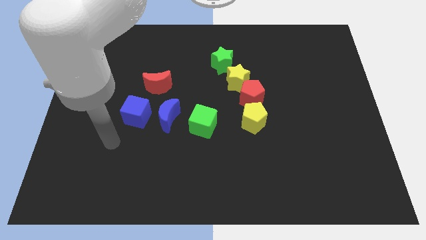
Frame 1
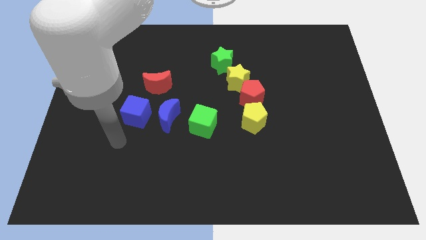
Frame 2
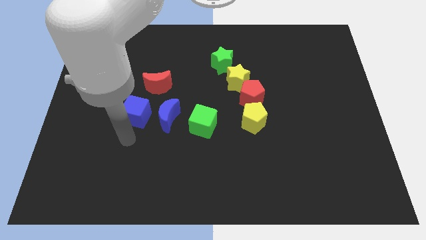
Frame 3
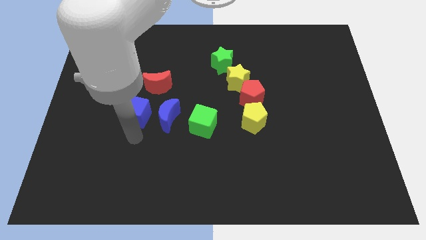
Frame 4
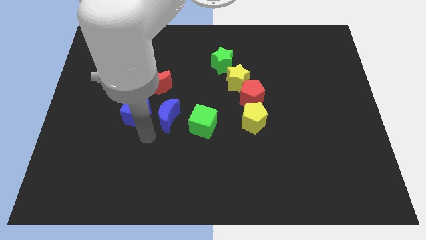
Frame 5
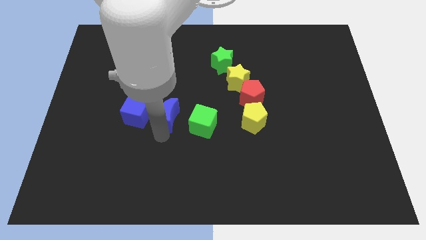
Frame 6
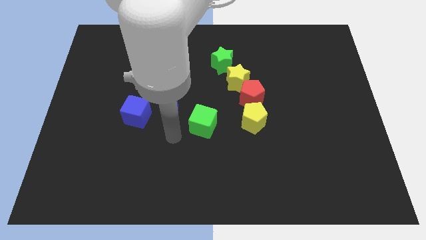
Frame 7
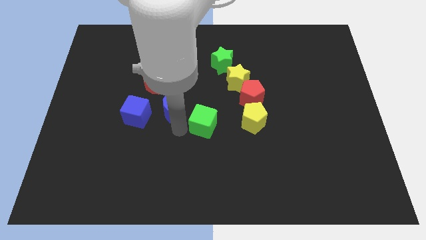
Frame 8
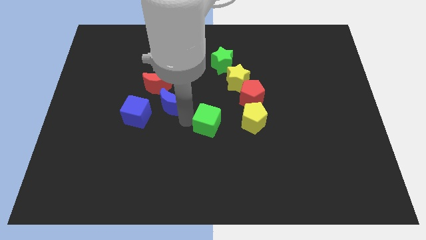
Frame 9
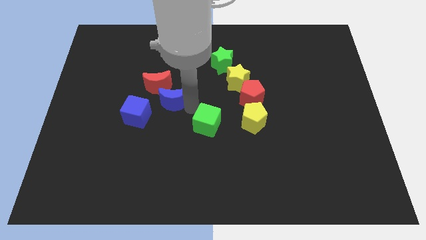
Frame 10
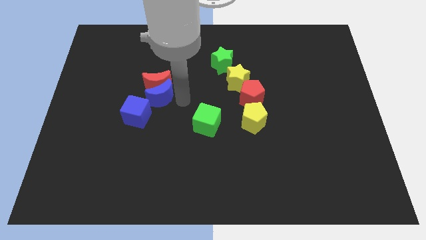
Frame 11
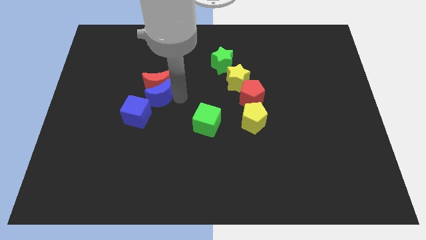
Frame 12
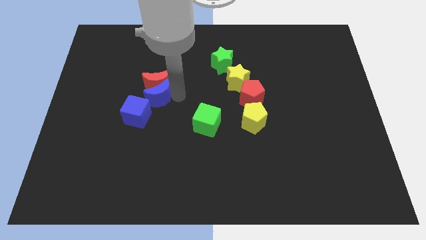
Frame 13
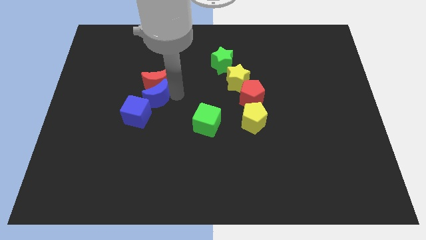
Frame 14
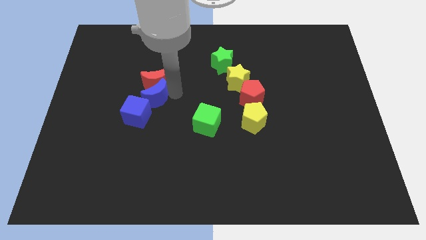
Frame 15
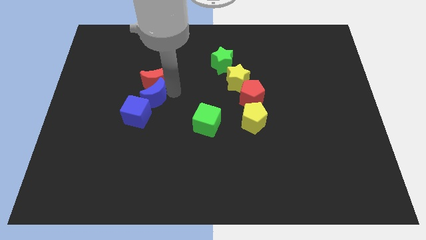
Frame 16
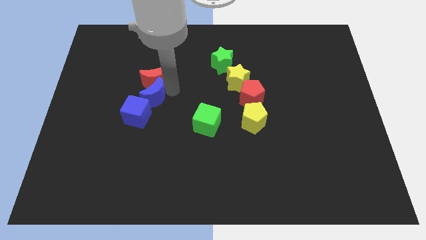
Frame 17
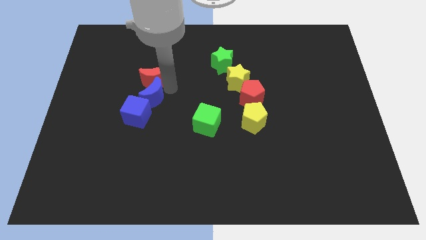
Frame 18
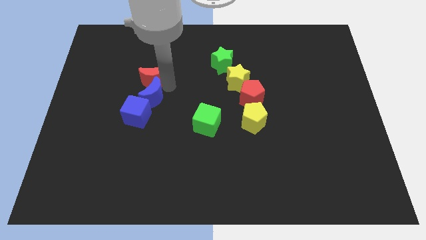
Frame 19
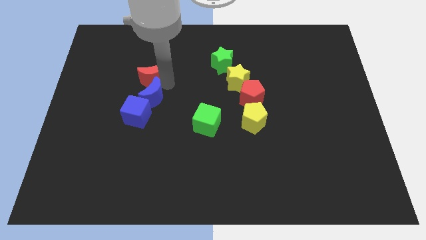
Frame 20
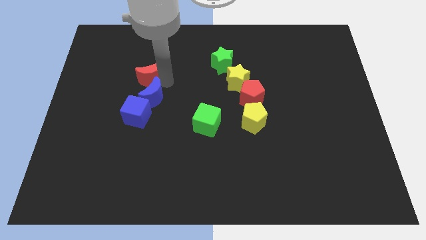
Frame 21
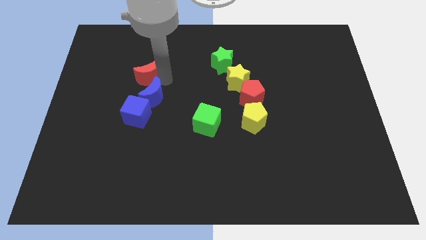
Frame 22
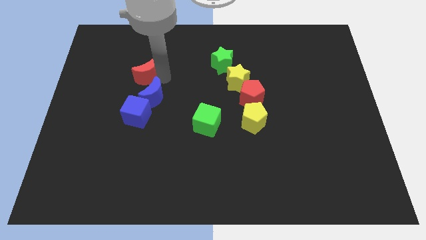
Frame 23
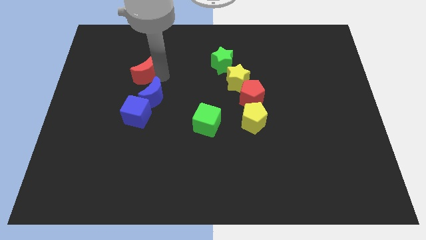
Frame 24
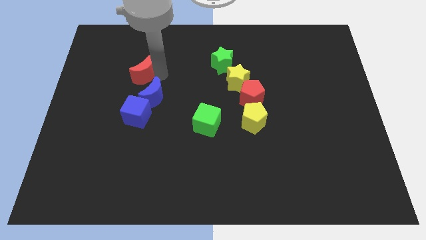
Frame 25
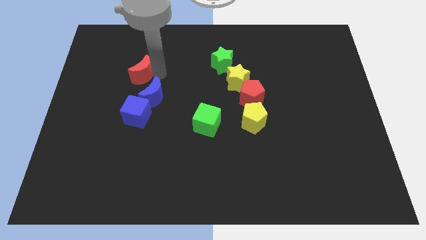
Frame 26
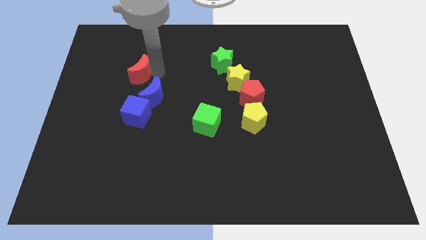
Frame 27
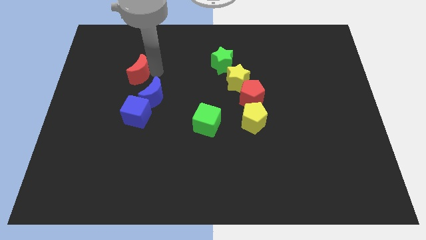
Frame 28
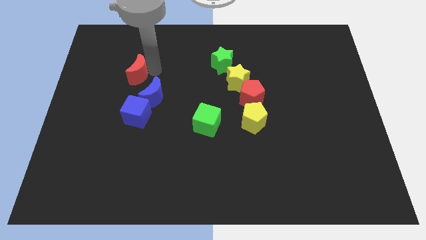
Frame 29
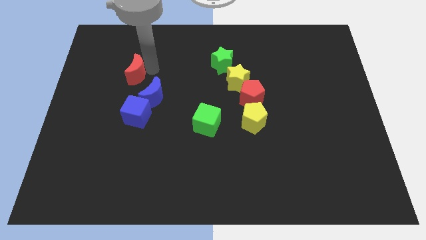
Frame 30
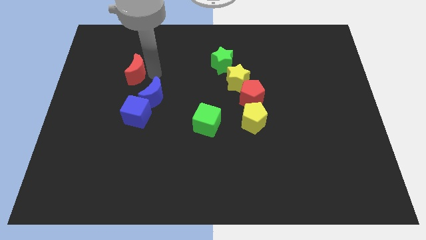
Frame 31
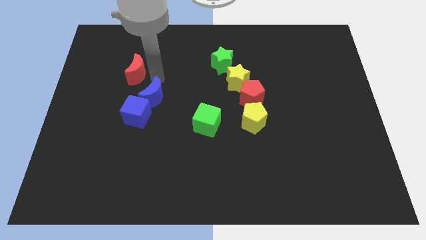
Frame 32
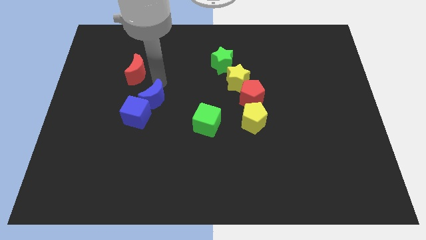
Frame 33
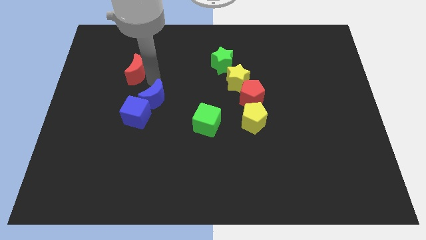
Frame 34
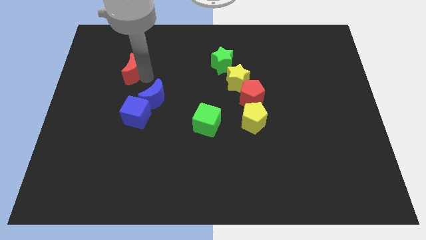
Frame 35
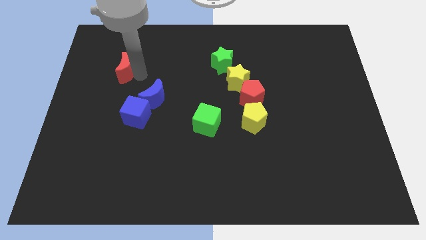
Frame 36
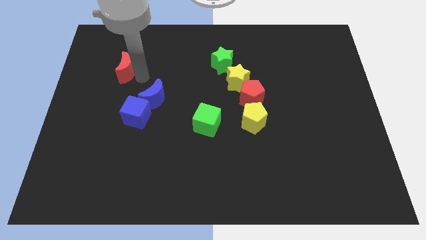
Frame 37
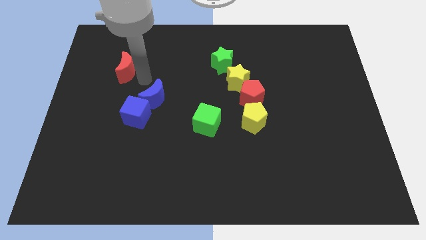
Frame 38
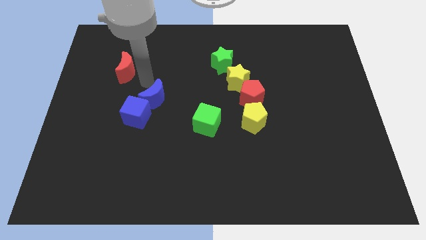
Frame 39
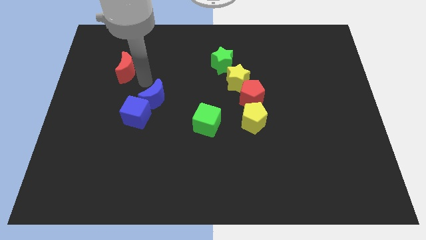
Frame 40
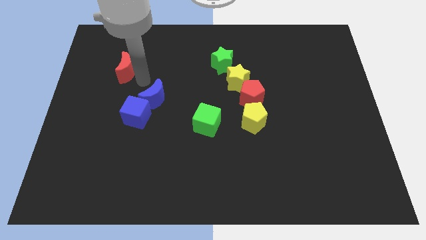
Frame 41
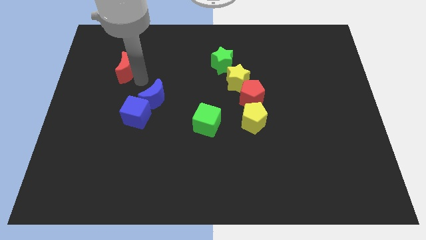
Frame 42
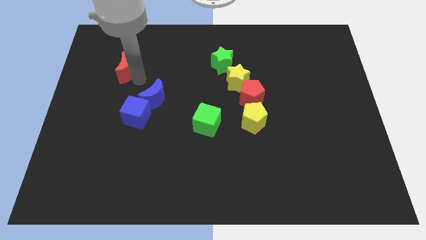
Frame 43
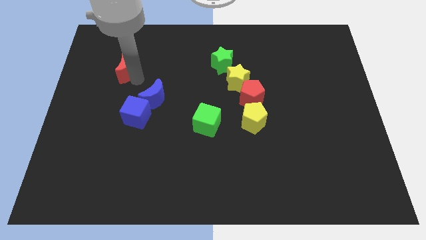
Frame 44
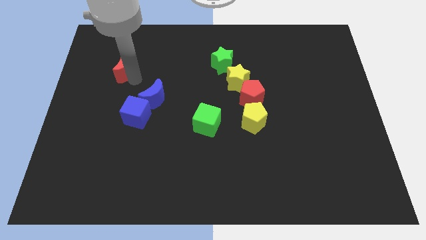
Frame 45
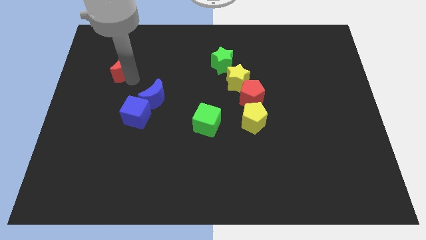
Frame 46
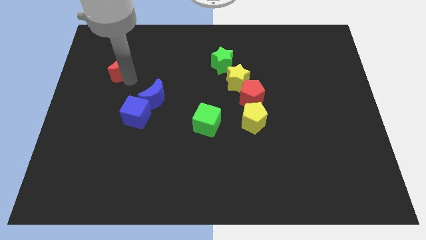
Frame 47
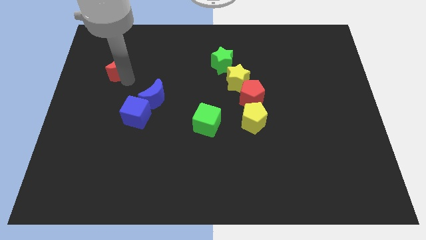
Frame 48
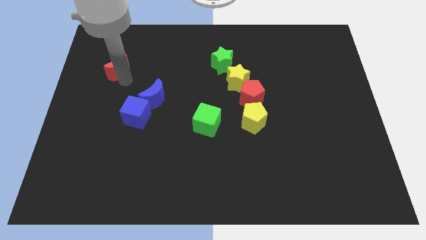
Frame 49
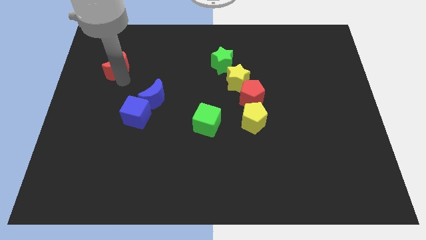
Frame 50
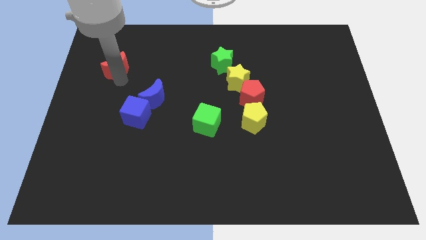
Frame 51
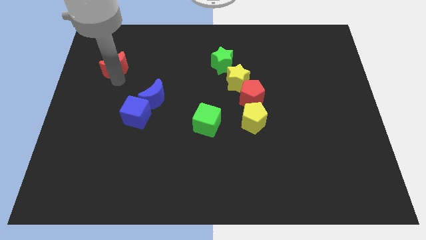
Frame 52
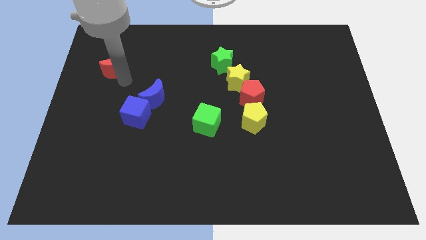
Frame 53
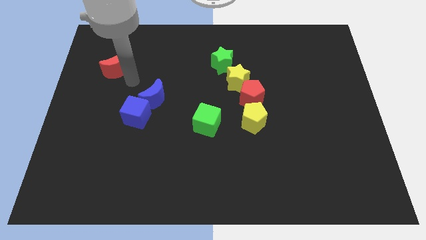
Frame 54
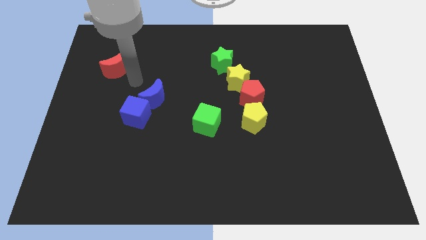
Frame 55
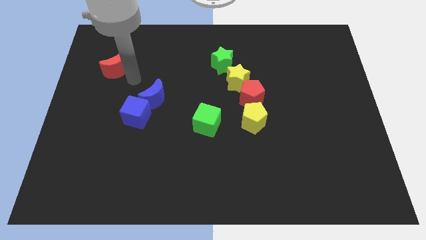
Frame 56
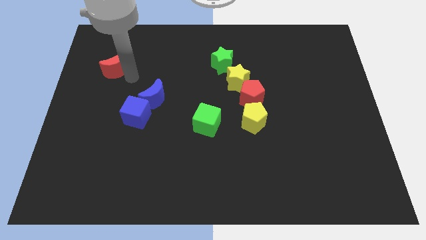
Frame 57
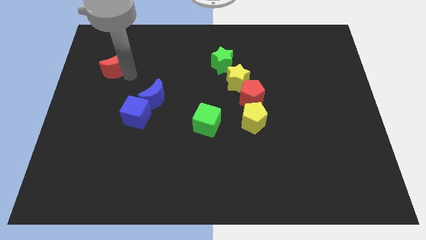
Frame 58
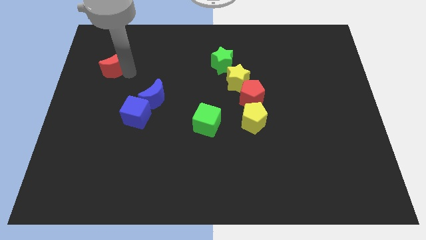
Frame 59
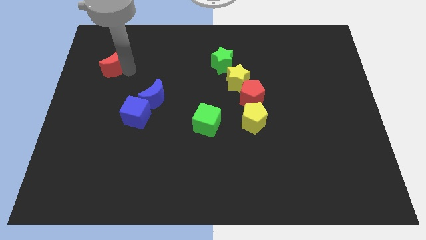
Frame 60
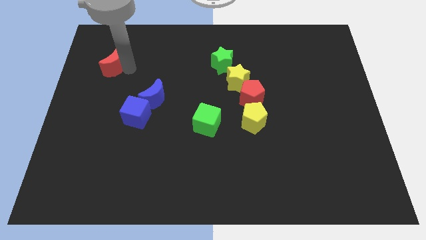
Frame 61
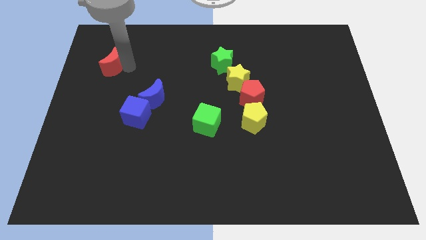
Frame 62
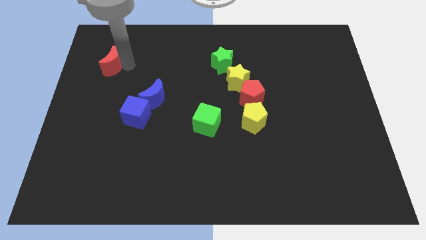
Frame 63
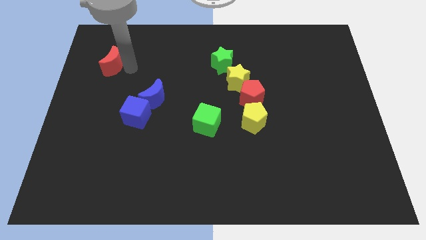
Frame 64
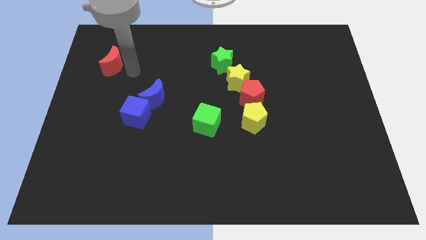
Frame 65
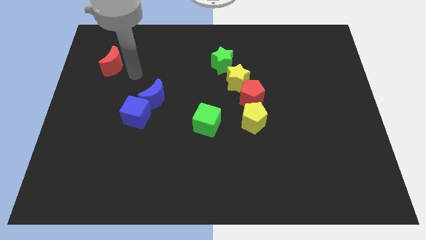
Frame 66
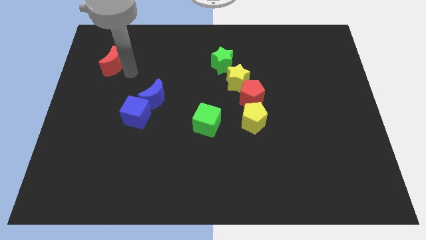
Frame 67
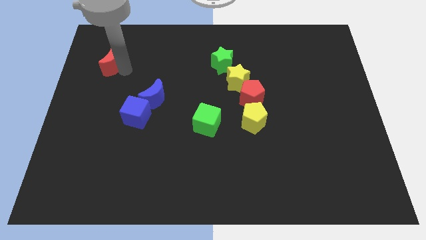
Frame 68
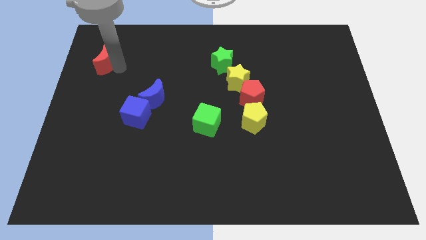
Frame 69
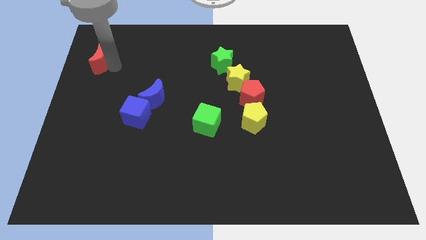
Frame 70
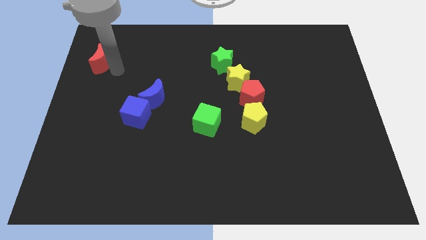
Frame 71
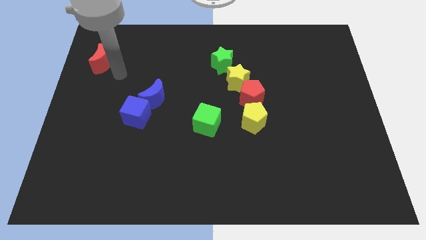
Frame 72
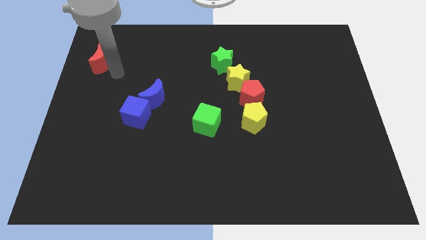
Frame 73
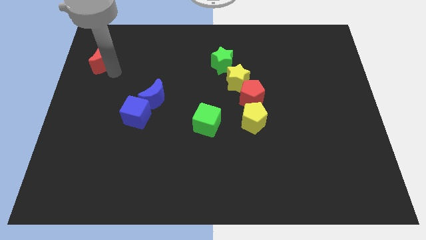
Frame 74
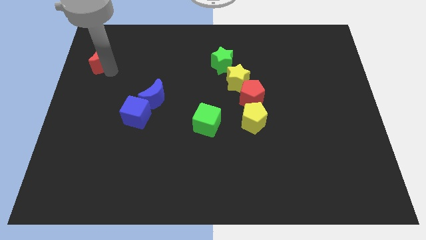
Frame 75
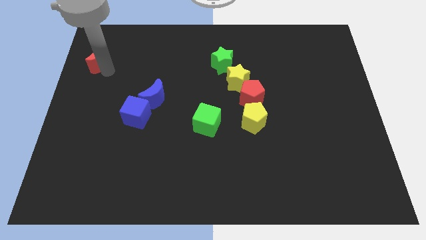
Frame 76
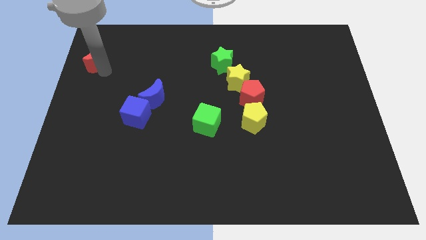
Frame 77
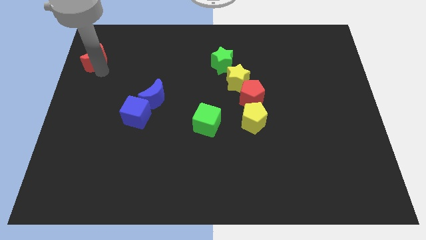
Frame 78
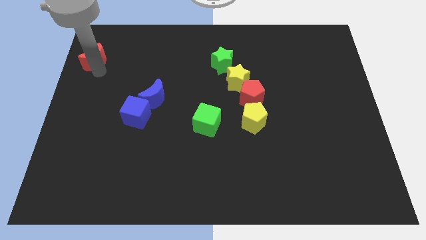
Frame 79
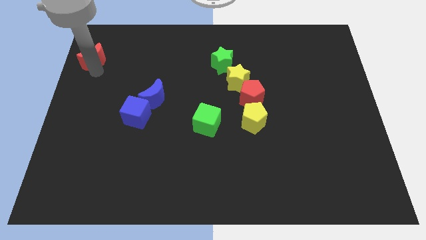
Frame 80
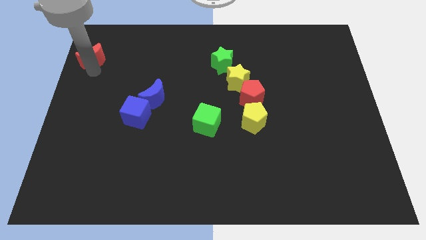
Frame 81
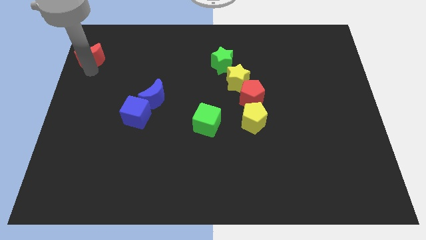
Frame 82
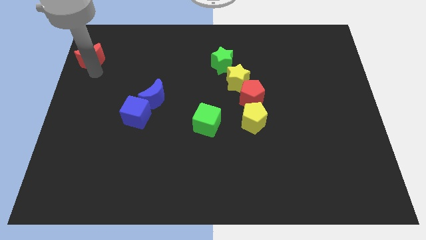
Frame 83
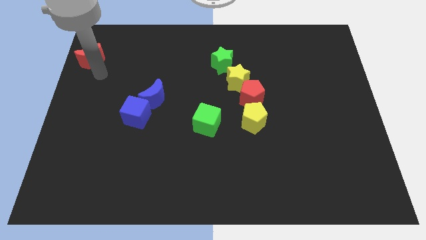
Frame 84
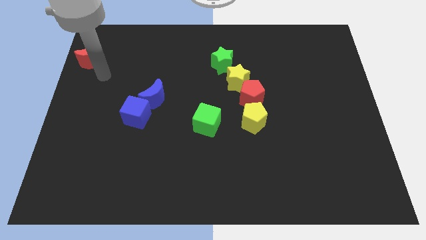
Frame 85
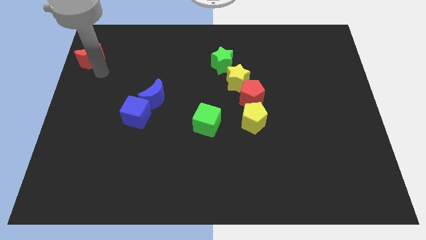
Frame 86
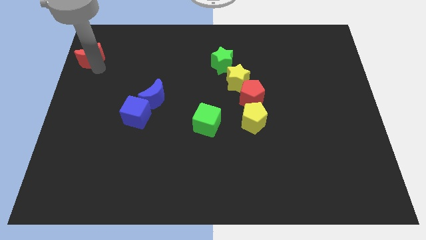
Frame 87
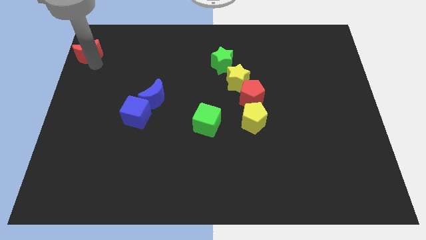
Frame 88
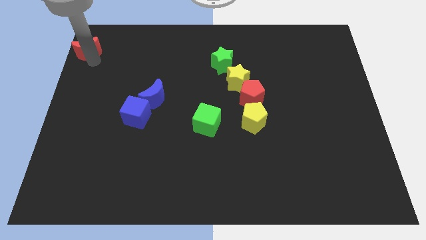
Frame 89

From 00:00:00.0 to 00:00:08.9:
put the red moon to the top left
